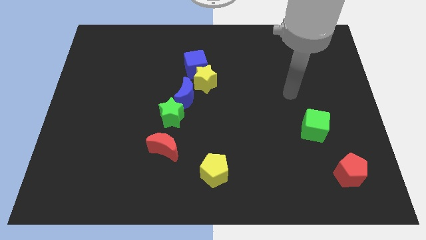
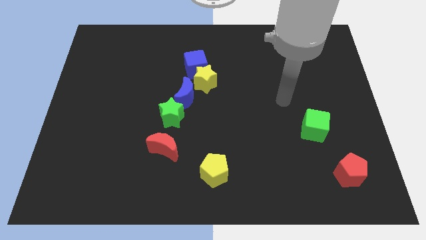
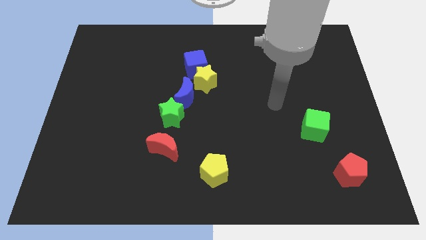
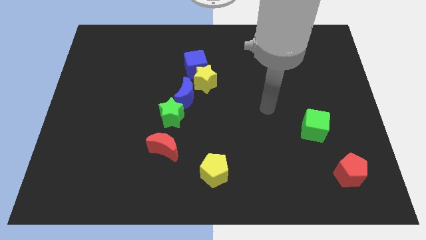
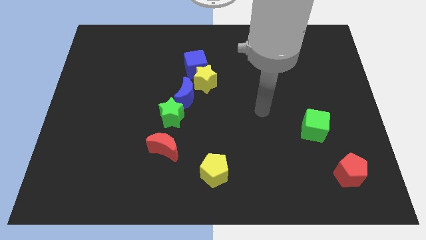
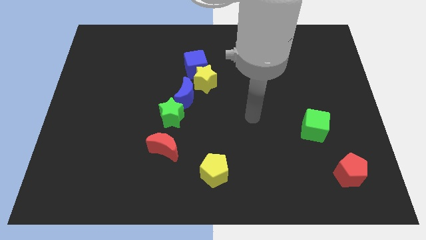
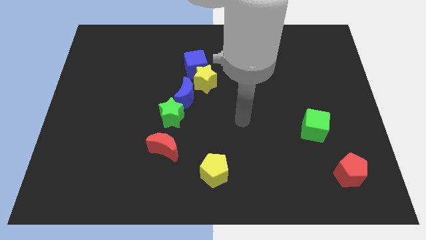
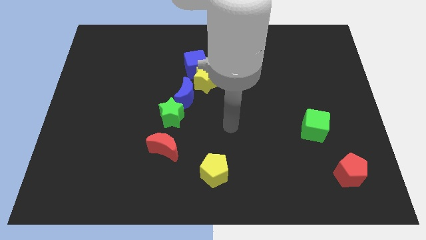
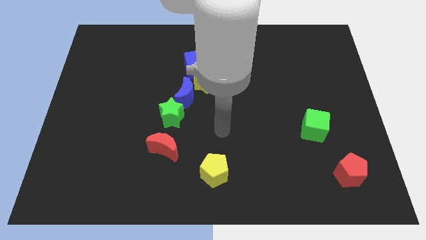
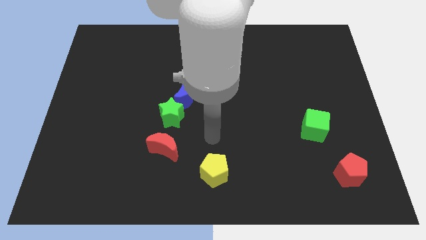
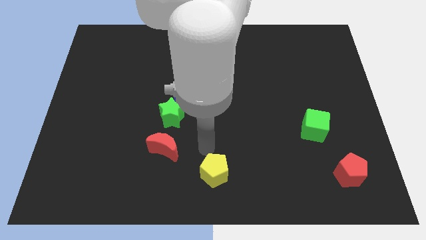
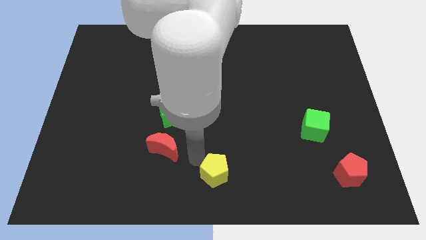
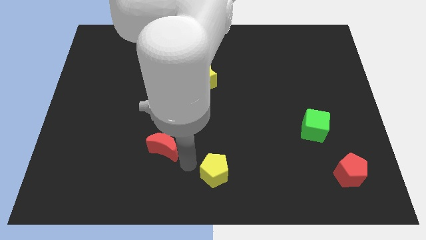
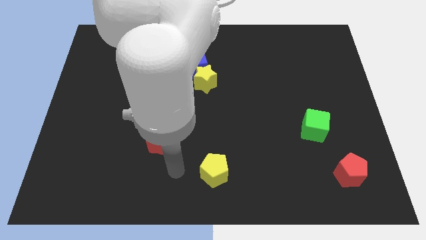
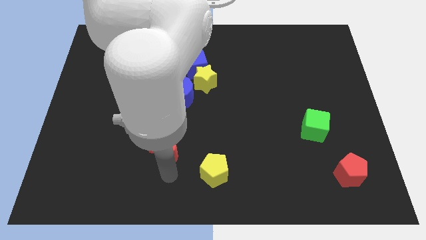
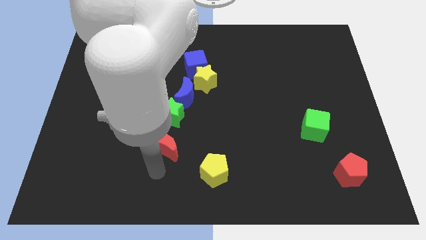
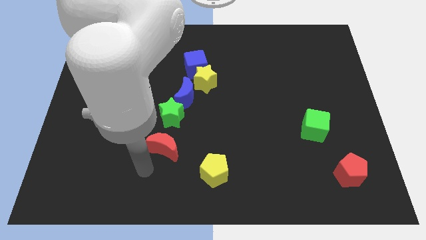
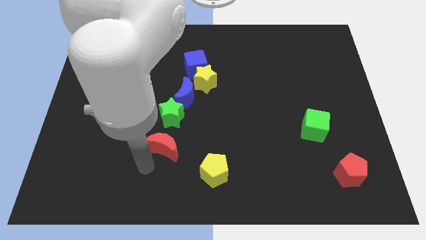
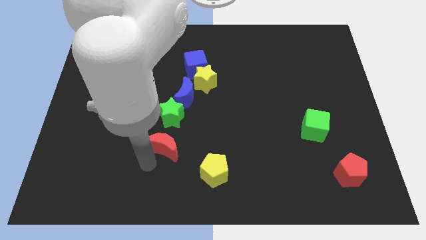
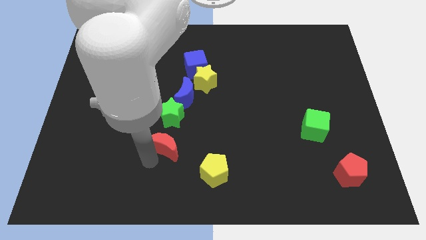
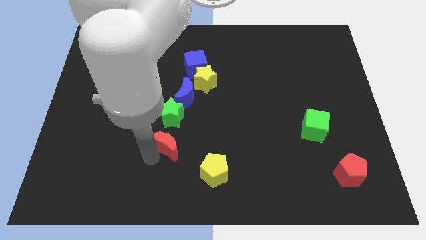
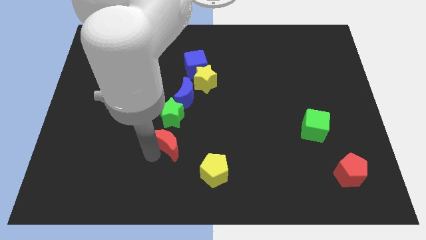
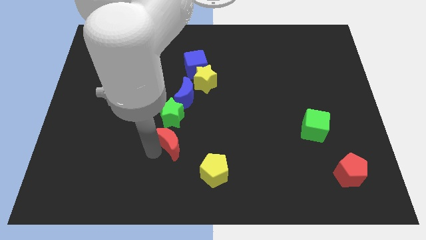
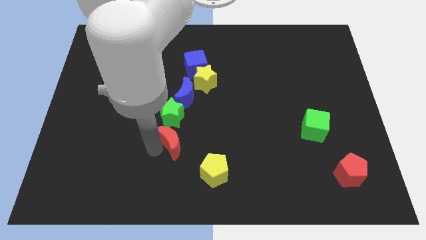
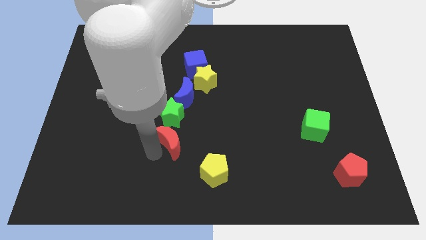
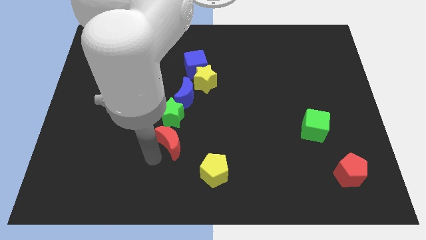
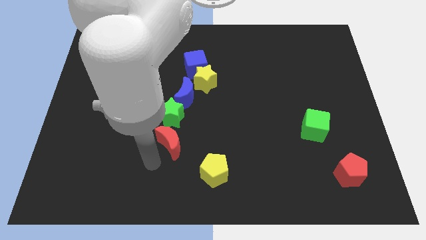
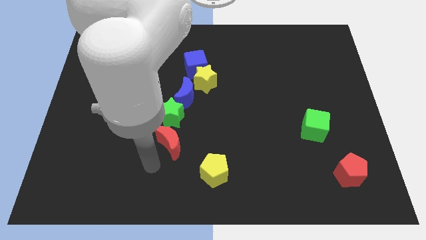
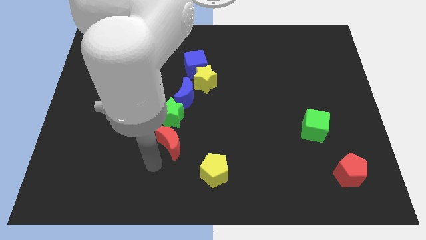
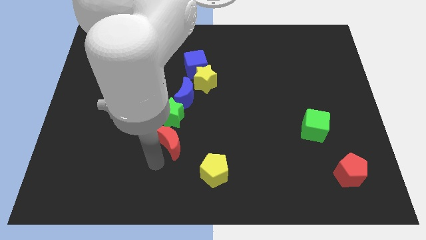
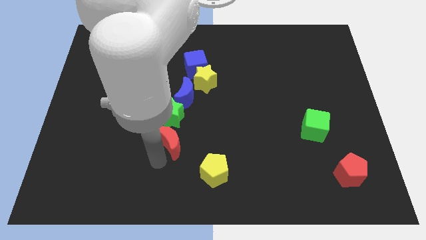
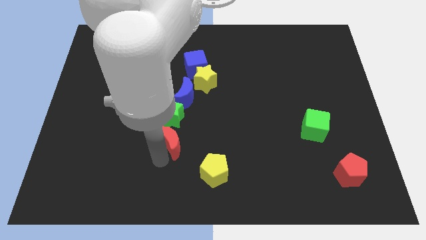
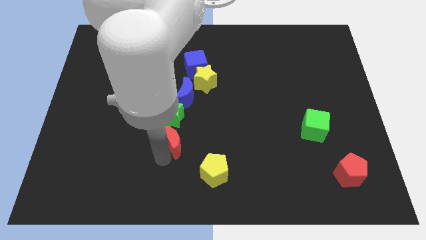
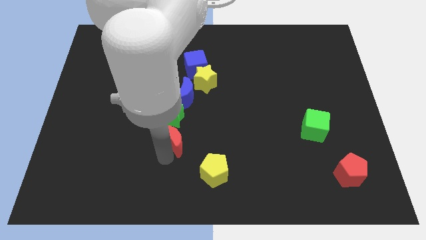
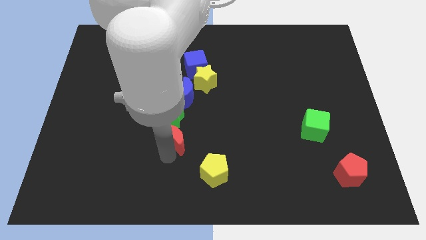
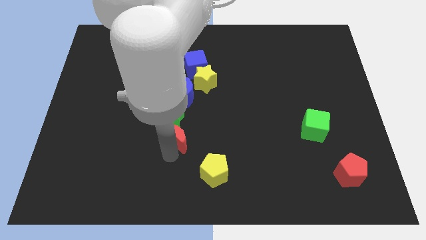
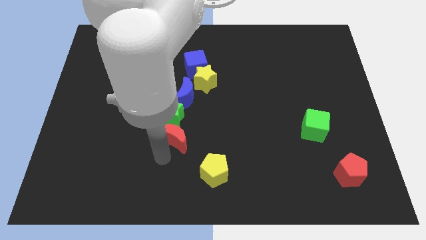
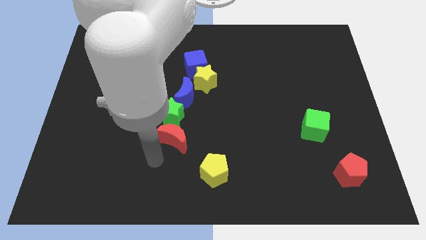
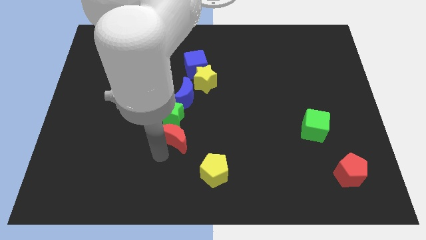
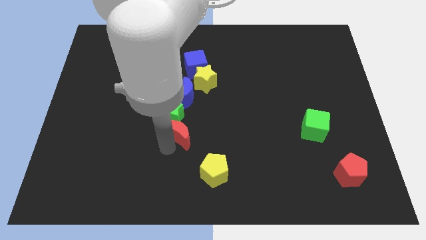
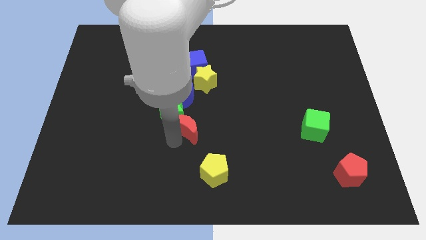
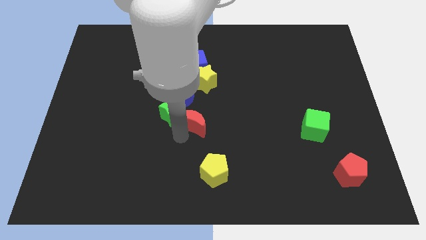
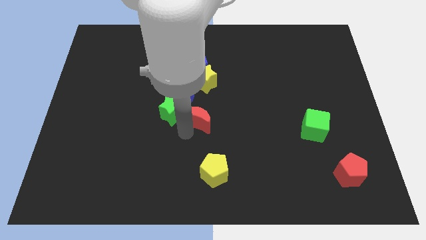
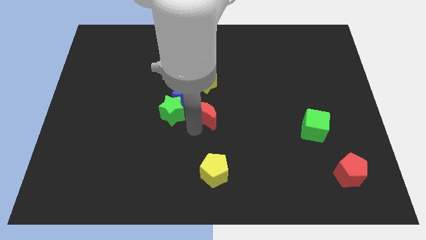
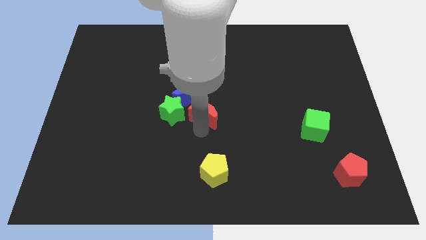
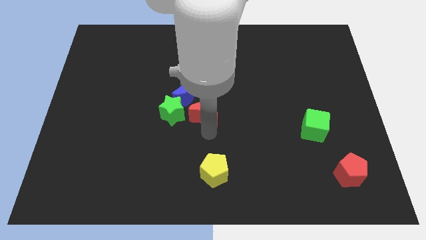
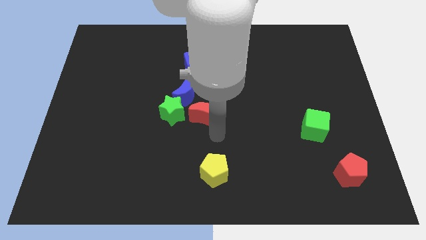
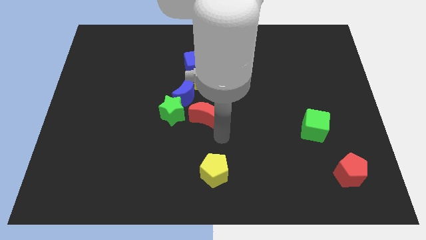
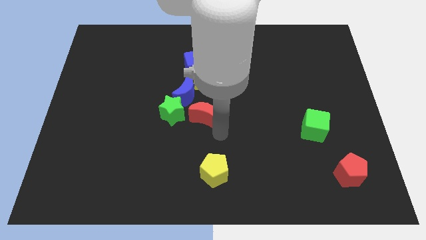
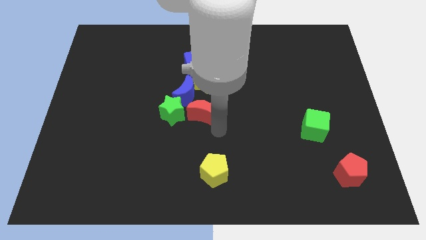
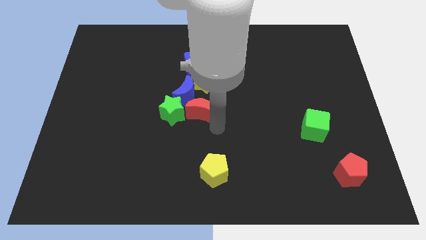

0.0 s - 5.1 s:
slide the red moon next to the blue moon
